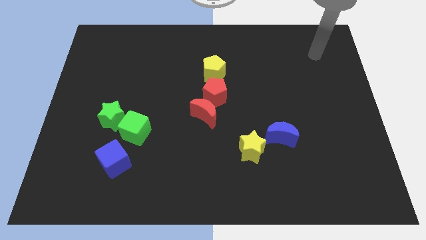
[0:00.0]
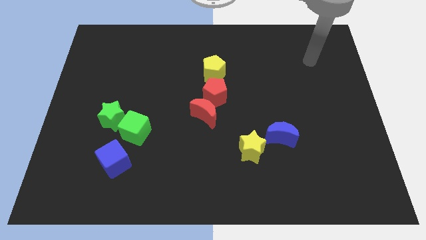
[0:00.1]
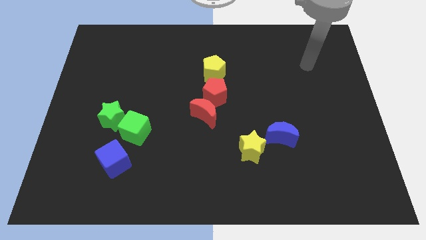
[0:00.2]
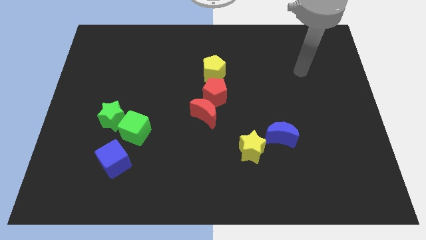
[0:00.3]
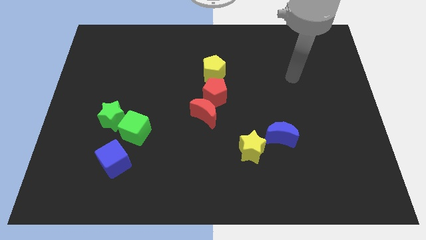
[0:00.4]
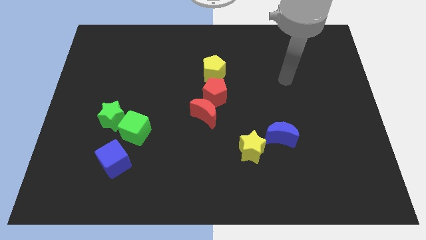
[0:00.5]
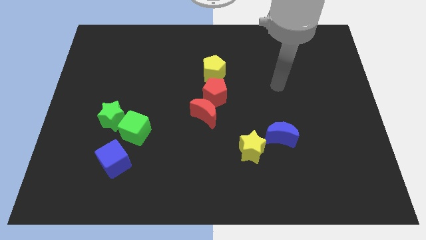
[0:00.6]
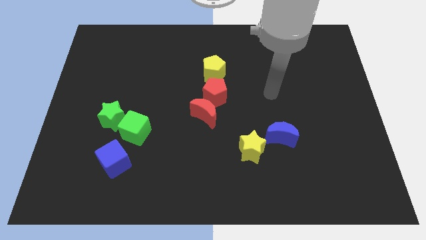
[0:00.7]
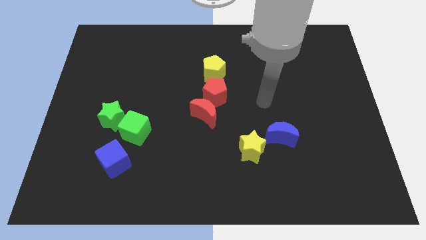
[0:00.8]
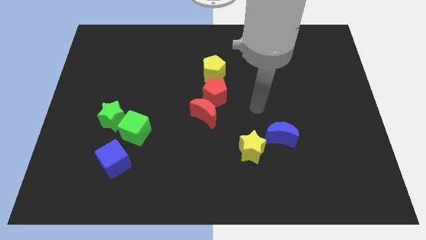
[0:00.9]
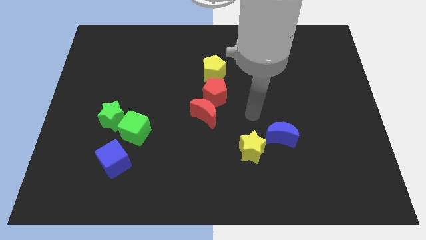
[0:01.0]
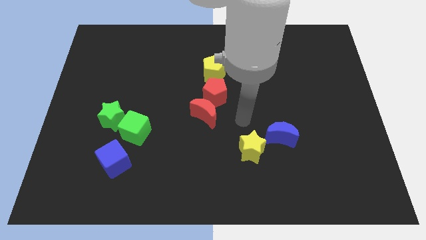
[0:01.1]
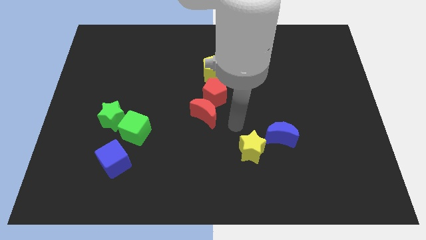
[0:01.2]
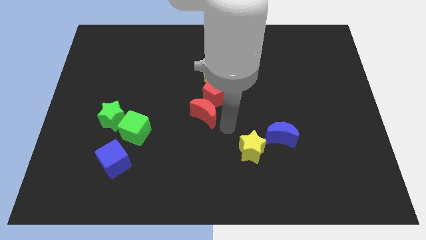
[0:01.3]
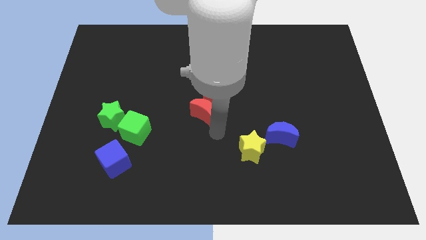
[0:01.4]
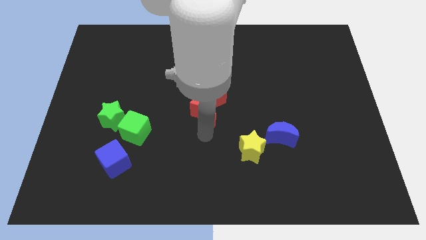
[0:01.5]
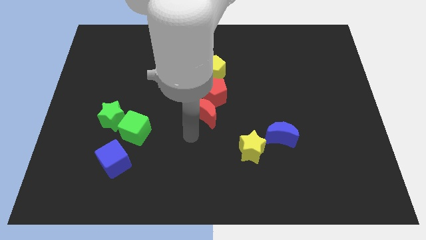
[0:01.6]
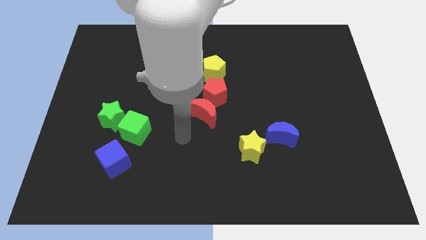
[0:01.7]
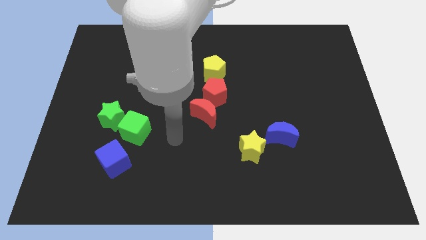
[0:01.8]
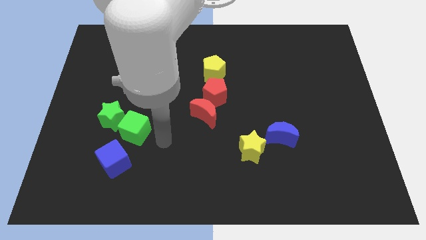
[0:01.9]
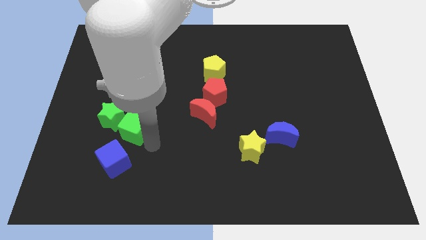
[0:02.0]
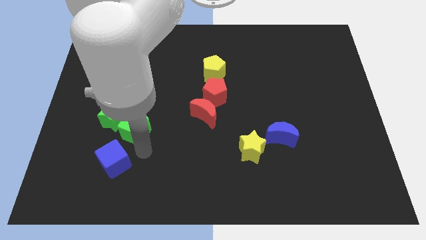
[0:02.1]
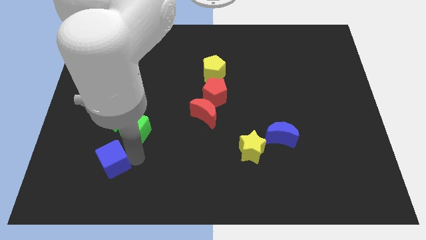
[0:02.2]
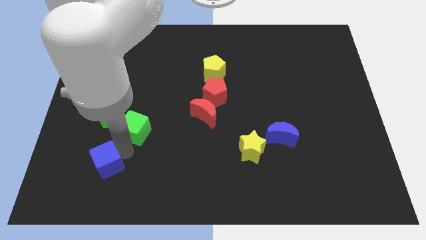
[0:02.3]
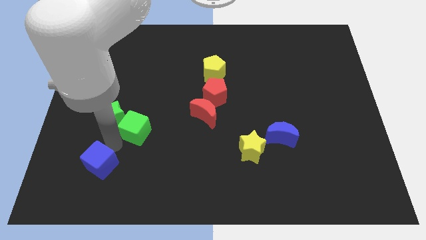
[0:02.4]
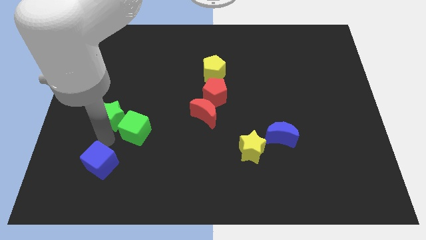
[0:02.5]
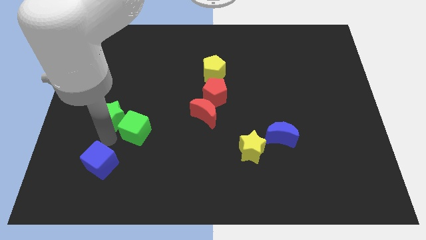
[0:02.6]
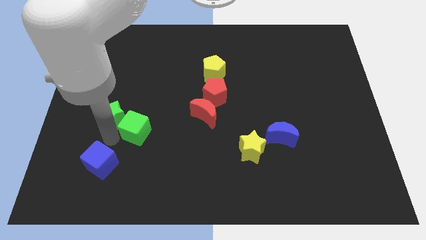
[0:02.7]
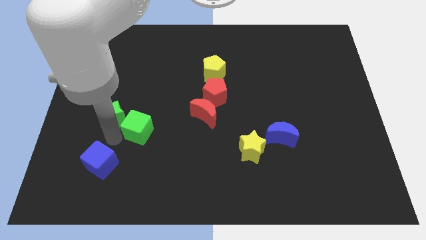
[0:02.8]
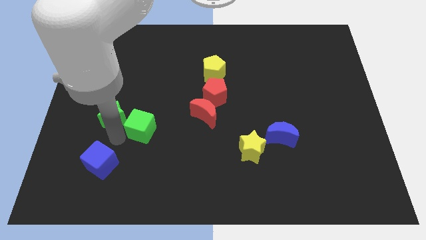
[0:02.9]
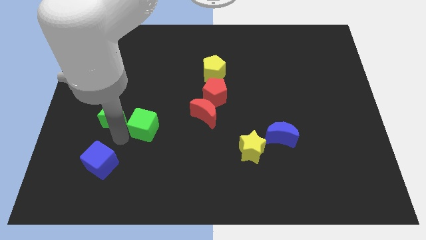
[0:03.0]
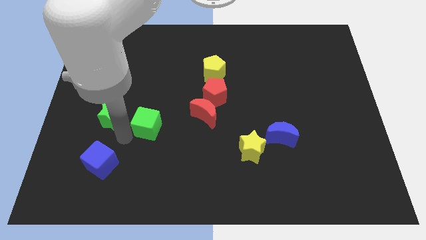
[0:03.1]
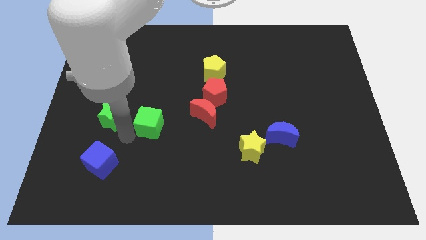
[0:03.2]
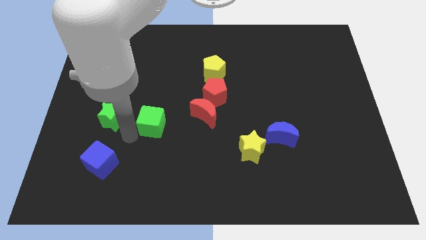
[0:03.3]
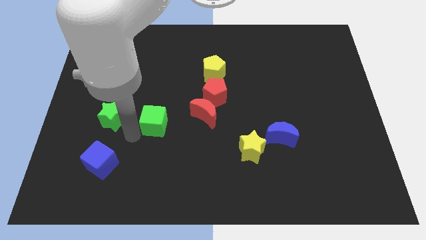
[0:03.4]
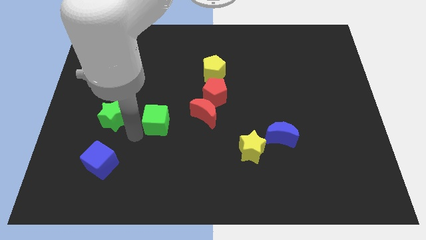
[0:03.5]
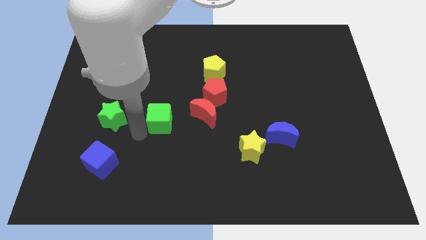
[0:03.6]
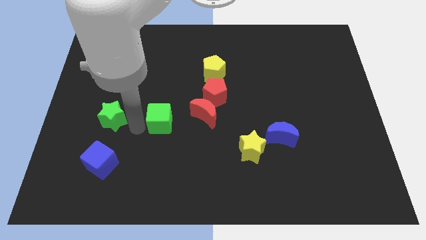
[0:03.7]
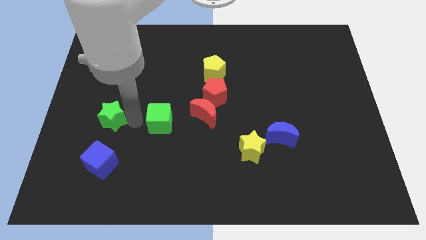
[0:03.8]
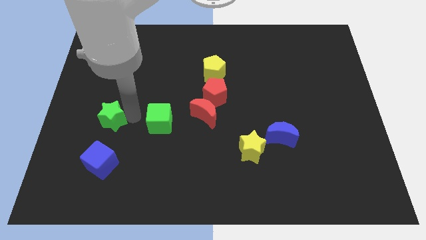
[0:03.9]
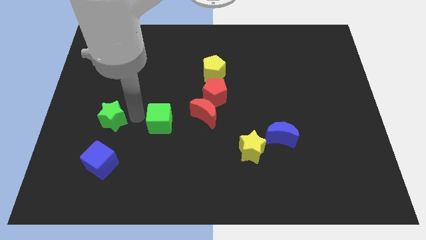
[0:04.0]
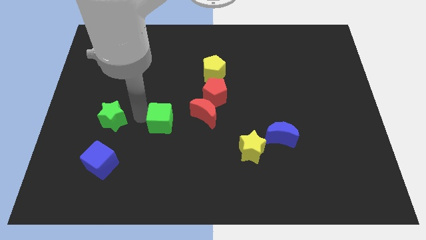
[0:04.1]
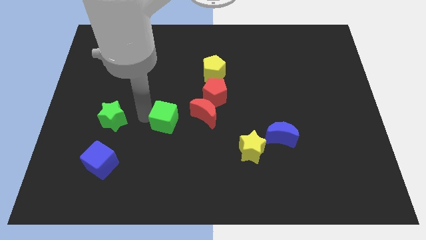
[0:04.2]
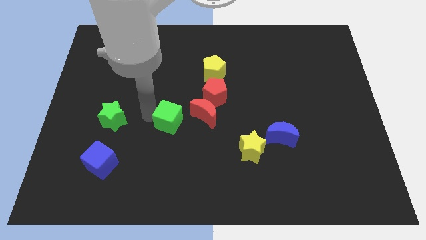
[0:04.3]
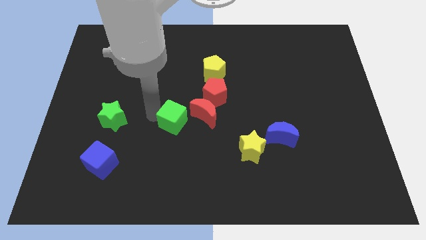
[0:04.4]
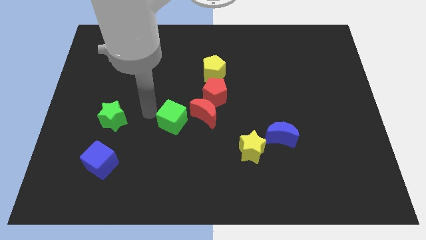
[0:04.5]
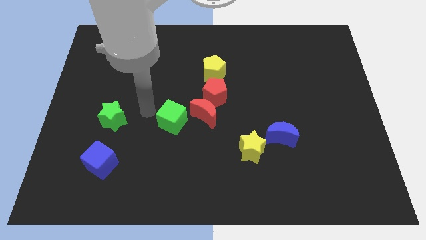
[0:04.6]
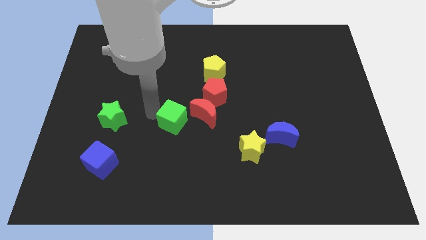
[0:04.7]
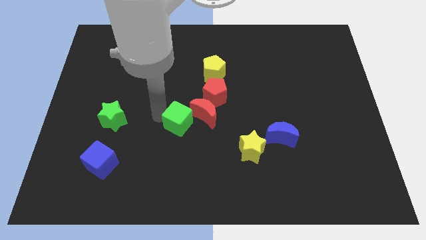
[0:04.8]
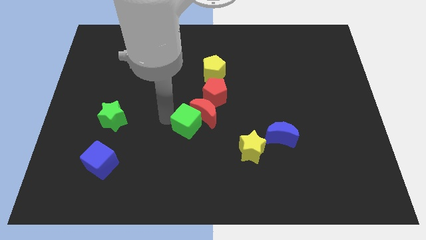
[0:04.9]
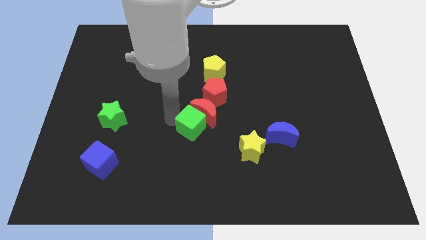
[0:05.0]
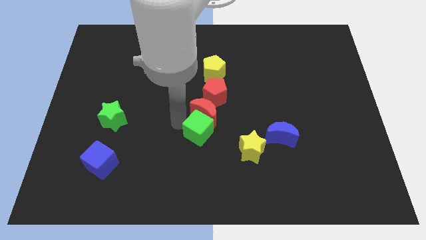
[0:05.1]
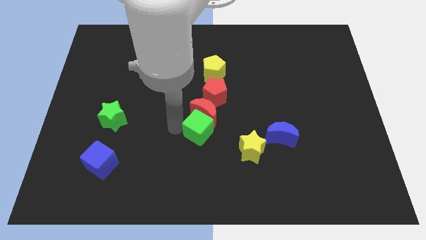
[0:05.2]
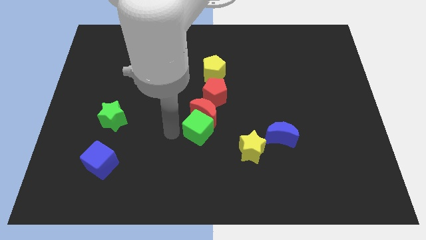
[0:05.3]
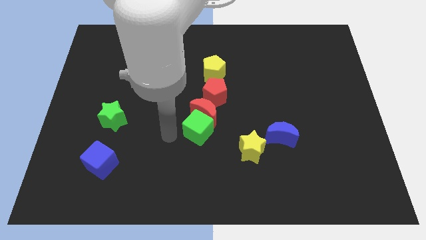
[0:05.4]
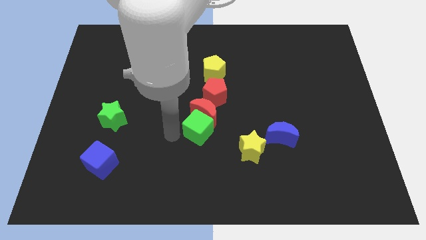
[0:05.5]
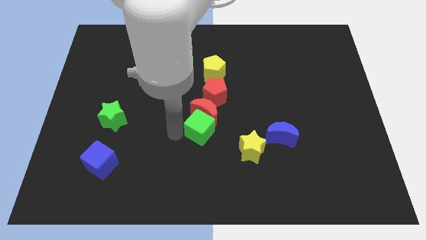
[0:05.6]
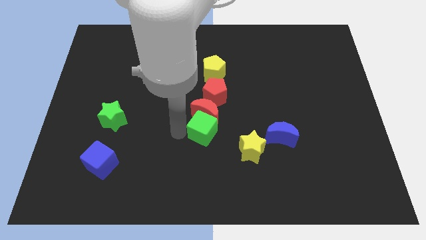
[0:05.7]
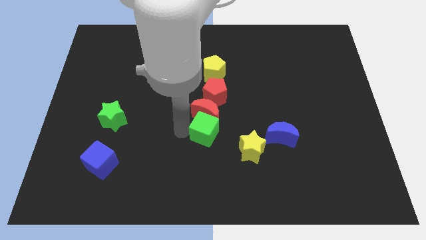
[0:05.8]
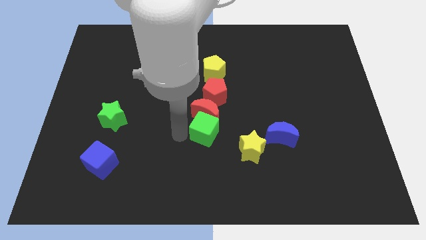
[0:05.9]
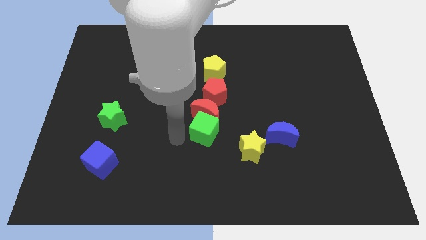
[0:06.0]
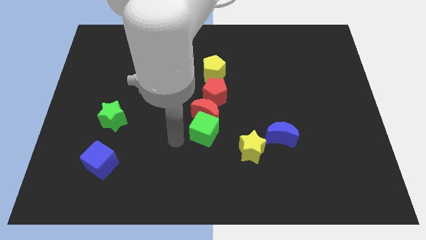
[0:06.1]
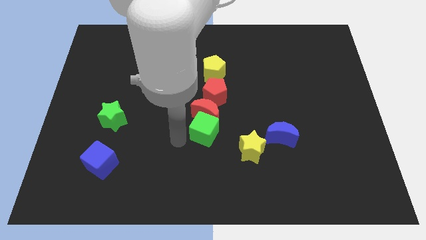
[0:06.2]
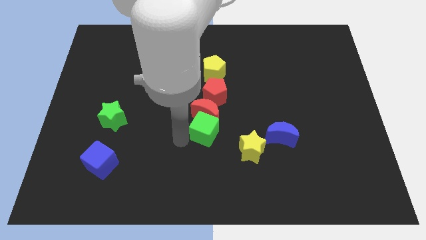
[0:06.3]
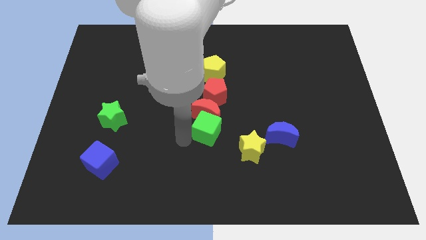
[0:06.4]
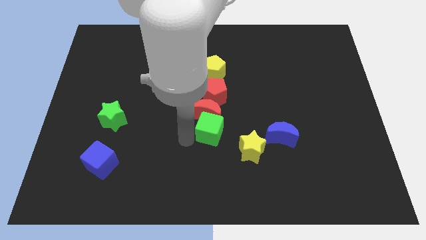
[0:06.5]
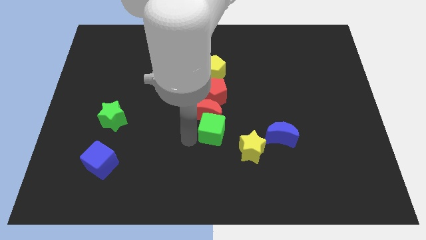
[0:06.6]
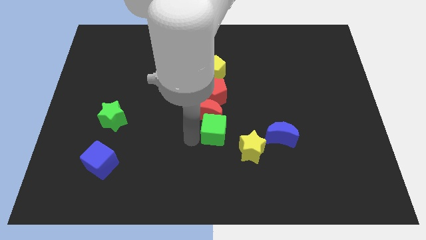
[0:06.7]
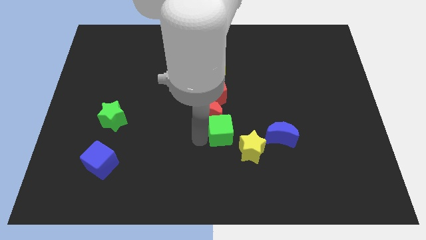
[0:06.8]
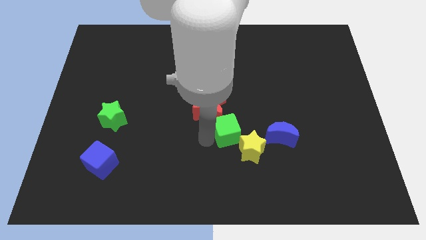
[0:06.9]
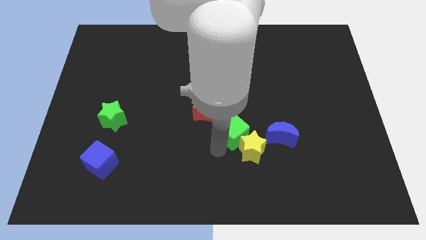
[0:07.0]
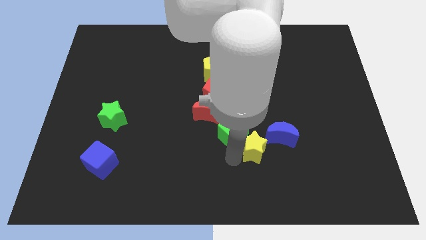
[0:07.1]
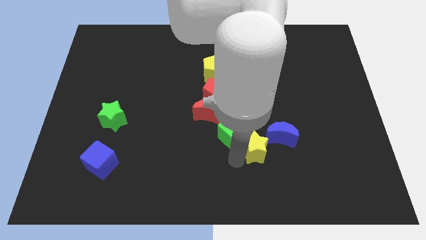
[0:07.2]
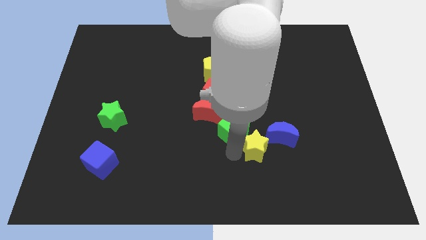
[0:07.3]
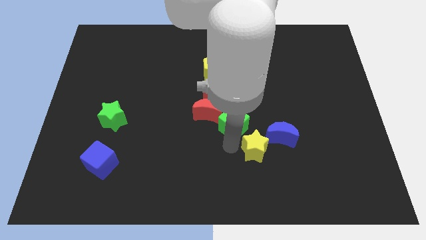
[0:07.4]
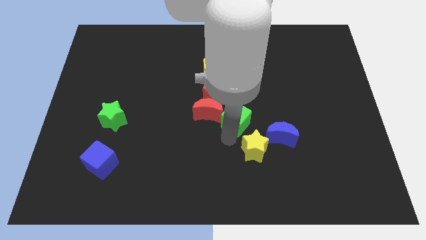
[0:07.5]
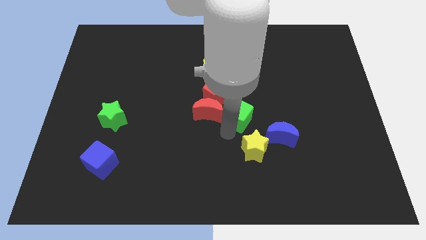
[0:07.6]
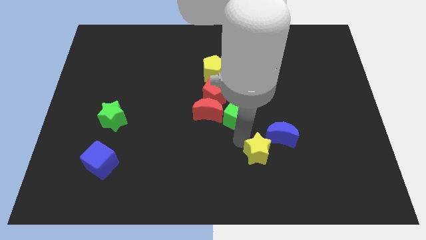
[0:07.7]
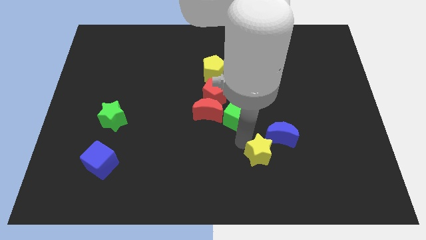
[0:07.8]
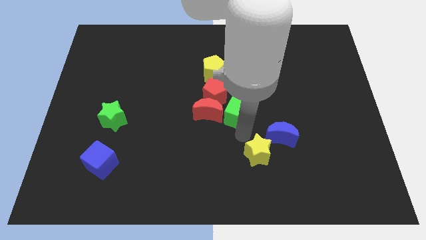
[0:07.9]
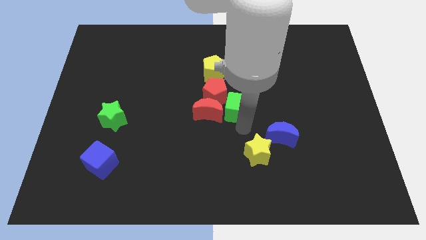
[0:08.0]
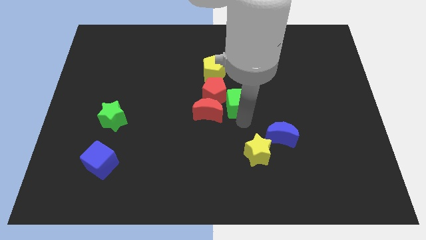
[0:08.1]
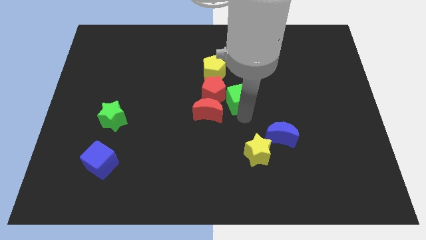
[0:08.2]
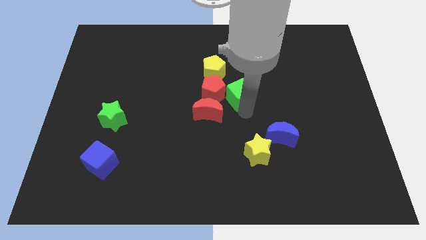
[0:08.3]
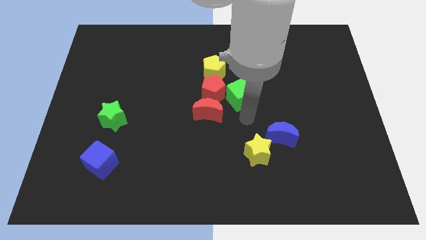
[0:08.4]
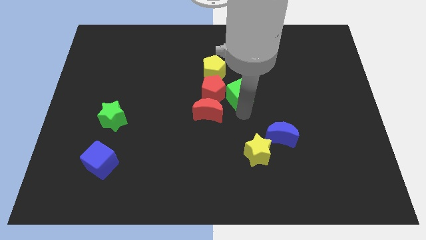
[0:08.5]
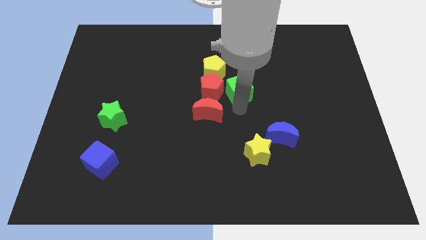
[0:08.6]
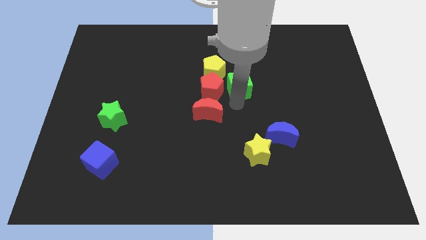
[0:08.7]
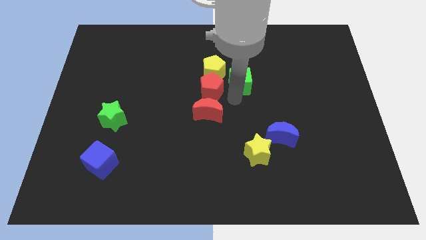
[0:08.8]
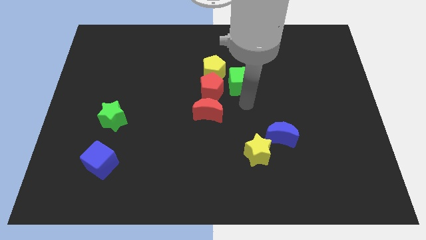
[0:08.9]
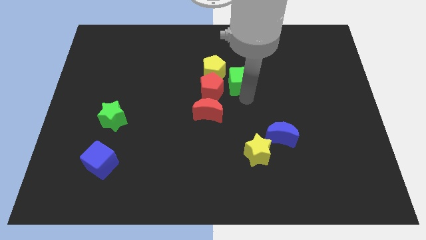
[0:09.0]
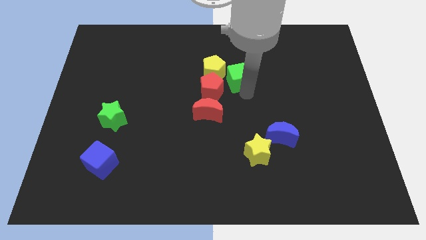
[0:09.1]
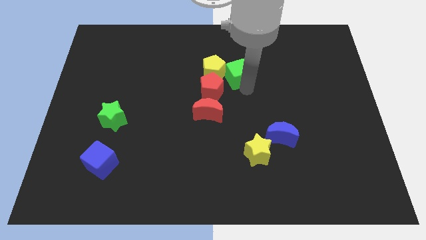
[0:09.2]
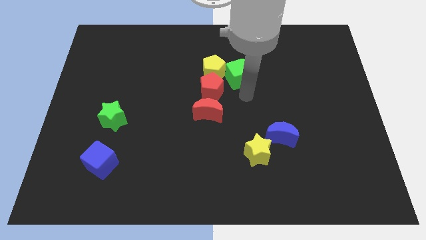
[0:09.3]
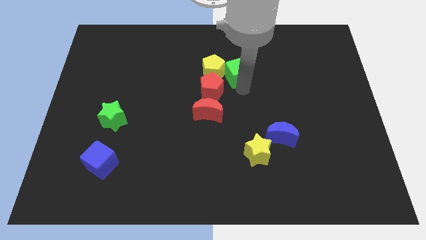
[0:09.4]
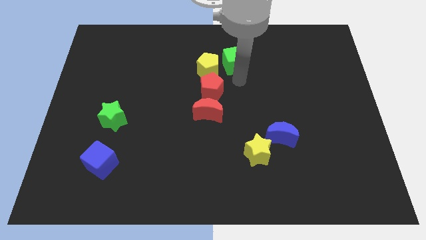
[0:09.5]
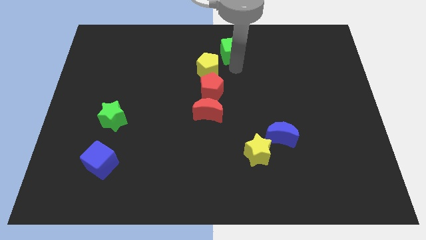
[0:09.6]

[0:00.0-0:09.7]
slide the green cube to the top side
